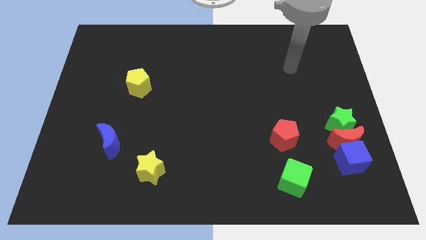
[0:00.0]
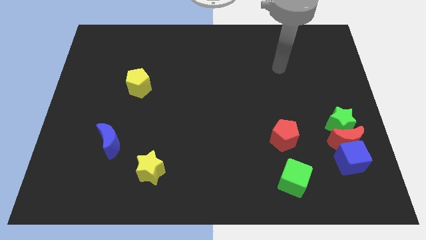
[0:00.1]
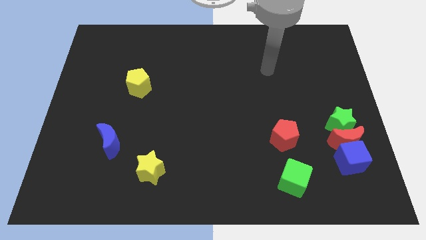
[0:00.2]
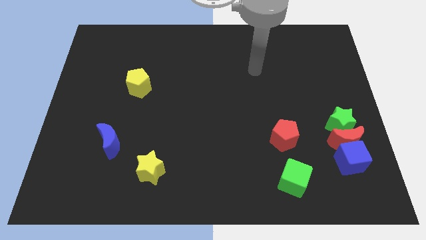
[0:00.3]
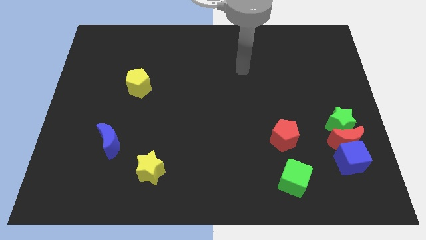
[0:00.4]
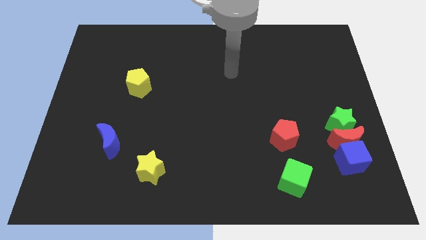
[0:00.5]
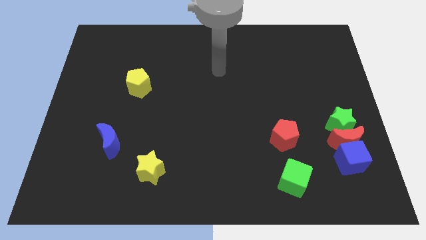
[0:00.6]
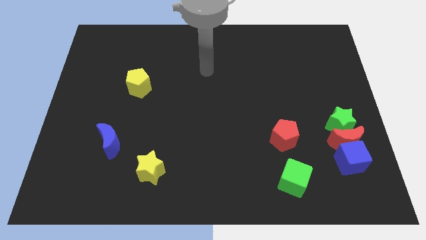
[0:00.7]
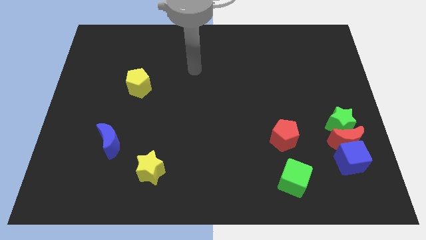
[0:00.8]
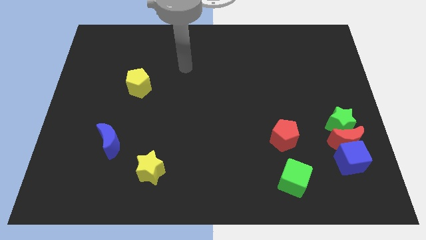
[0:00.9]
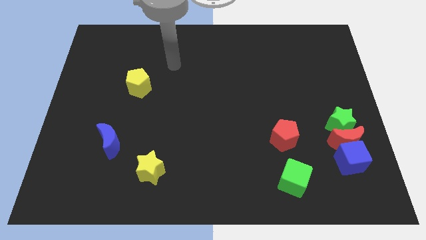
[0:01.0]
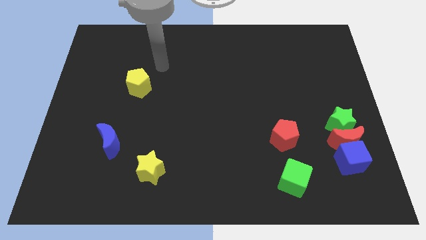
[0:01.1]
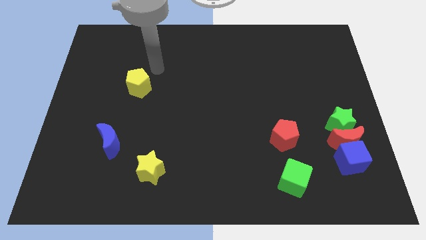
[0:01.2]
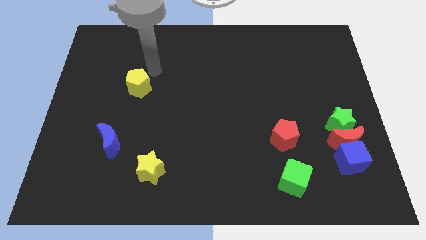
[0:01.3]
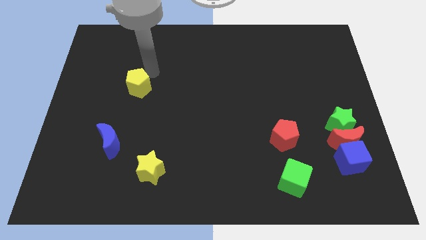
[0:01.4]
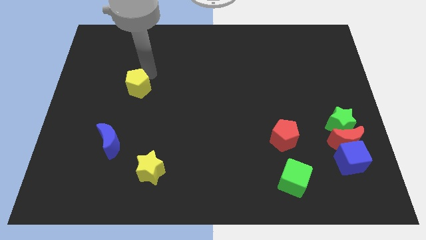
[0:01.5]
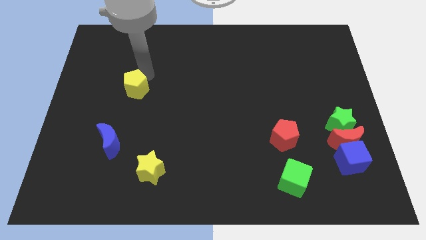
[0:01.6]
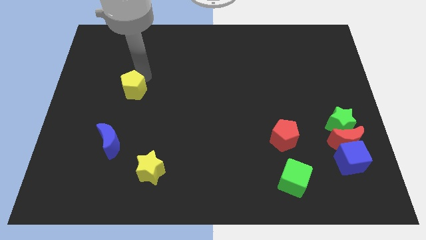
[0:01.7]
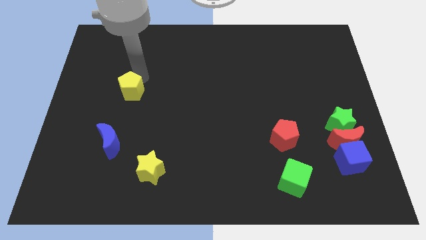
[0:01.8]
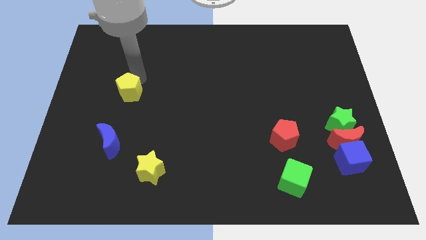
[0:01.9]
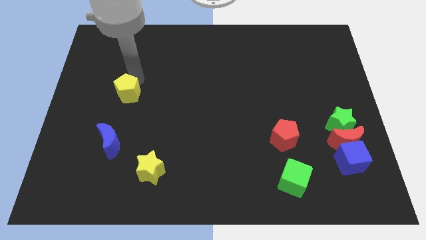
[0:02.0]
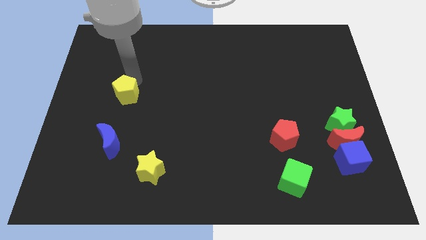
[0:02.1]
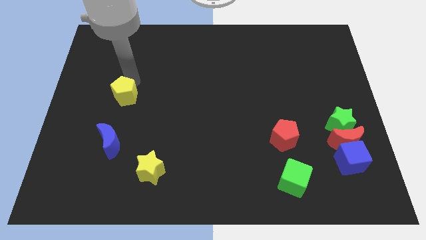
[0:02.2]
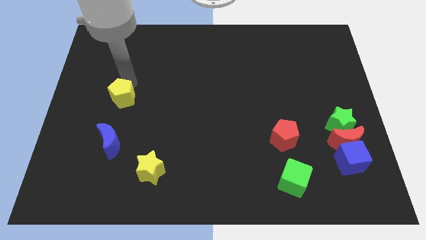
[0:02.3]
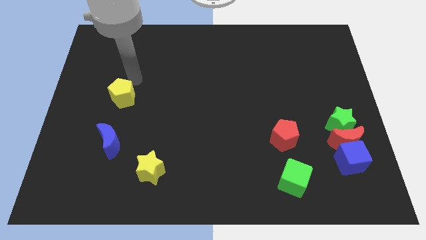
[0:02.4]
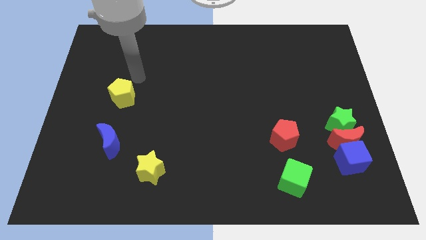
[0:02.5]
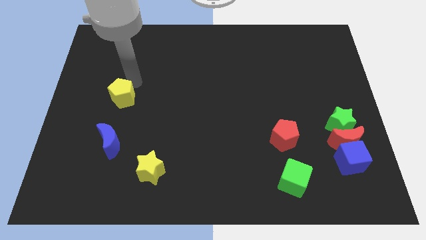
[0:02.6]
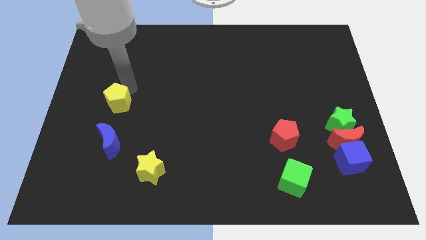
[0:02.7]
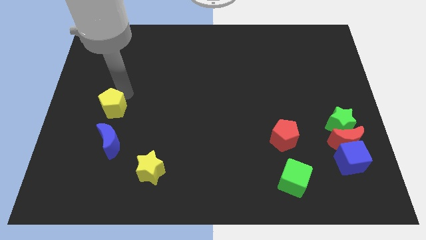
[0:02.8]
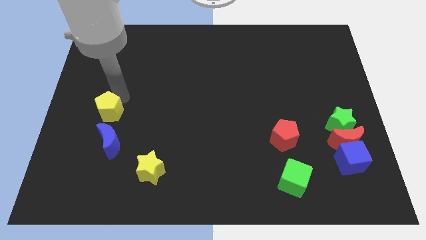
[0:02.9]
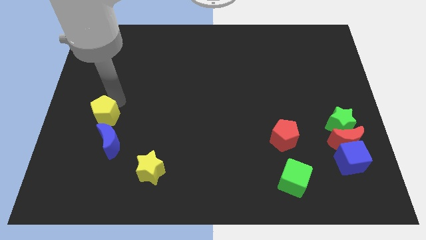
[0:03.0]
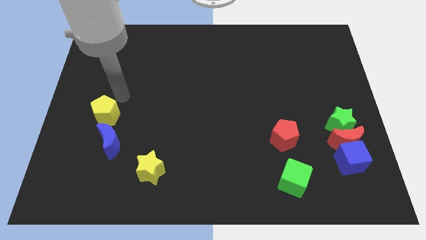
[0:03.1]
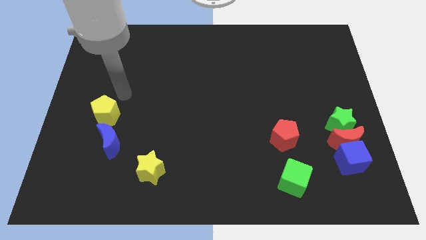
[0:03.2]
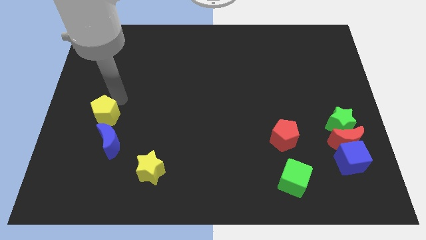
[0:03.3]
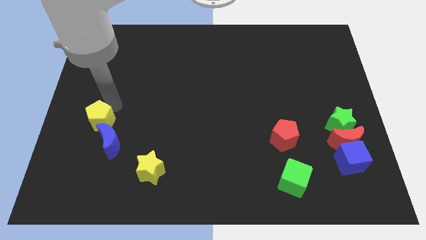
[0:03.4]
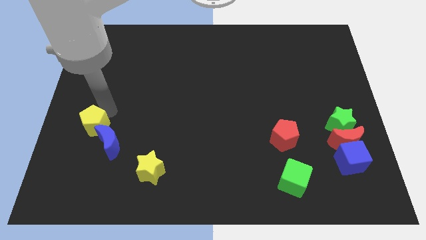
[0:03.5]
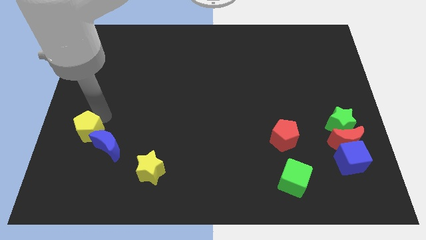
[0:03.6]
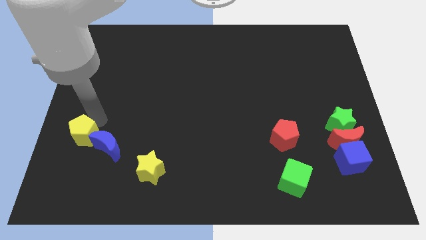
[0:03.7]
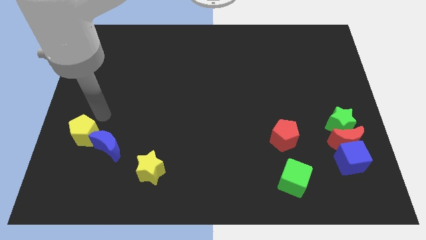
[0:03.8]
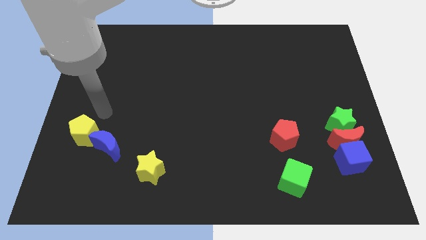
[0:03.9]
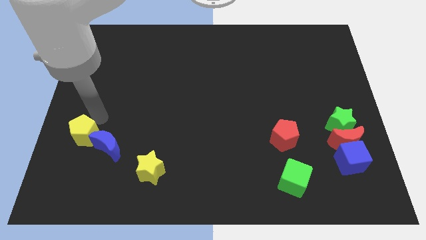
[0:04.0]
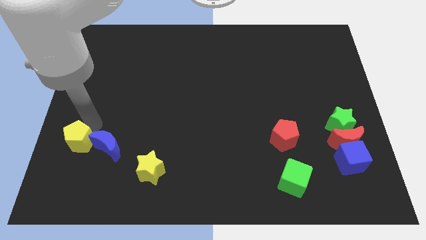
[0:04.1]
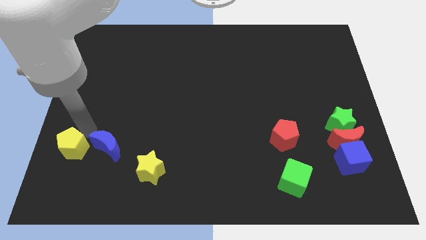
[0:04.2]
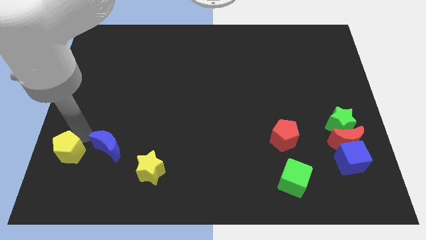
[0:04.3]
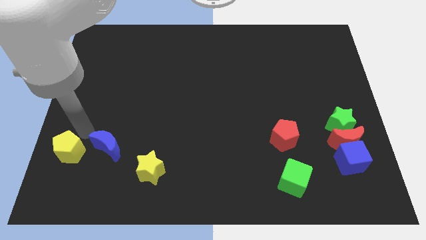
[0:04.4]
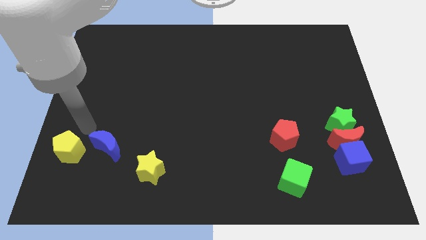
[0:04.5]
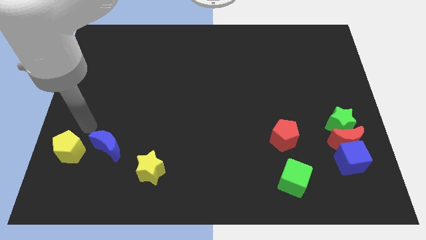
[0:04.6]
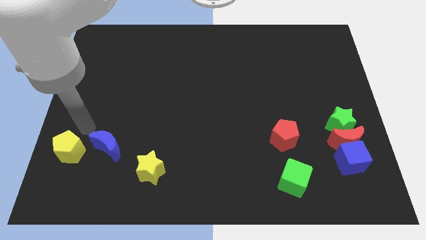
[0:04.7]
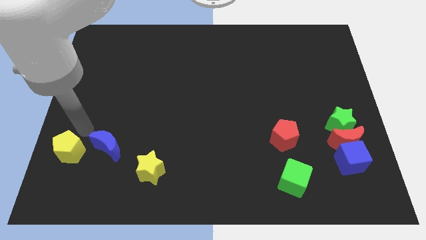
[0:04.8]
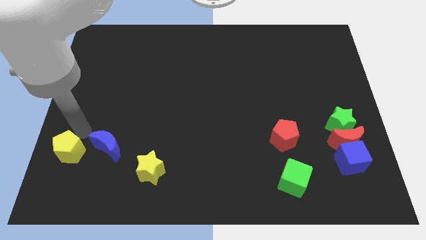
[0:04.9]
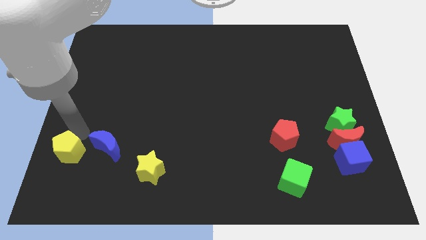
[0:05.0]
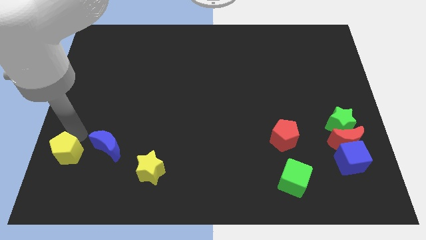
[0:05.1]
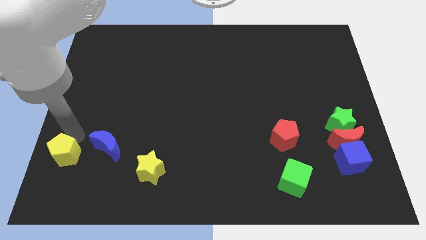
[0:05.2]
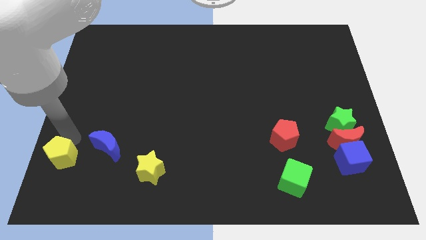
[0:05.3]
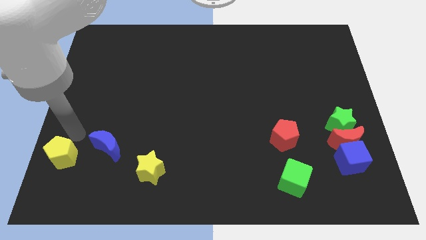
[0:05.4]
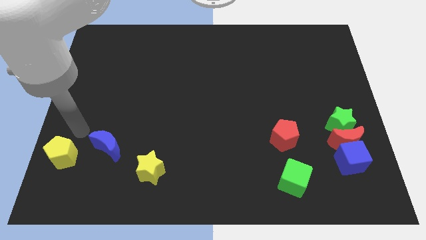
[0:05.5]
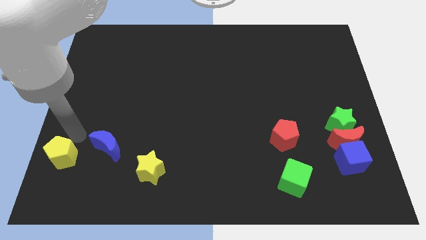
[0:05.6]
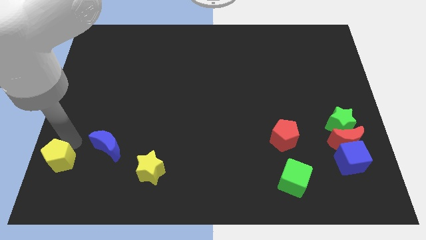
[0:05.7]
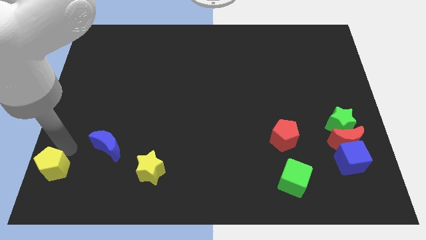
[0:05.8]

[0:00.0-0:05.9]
put the yellow pentagon to the bottom left of the board

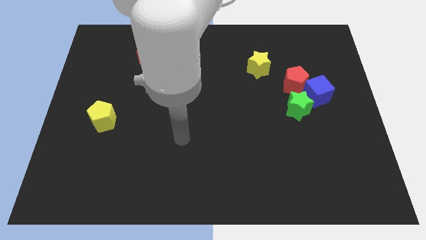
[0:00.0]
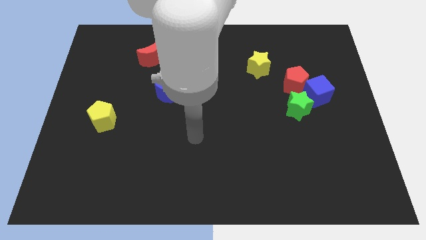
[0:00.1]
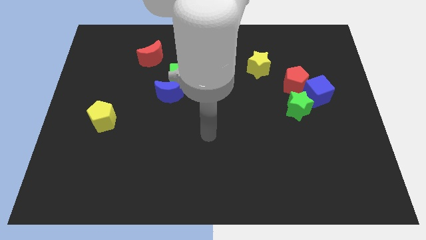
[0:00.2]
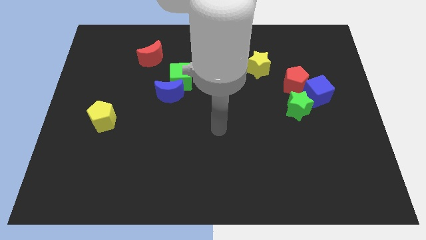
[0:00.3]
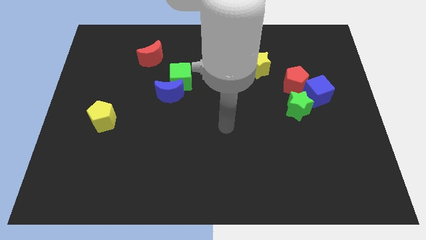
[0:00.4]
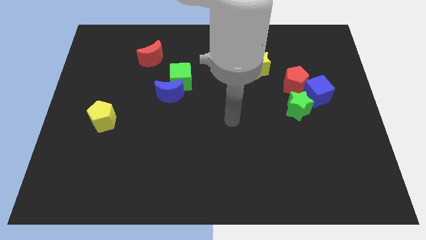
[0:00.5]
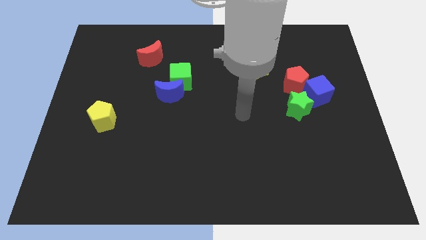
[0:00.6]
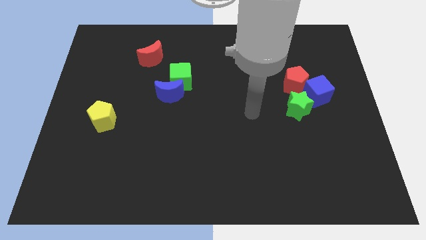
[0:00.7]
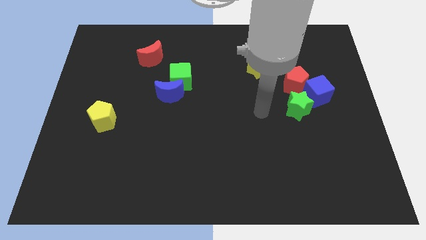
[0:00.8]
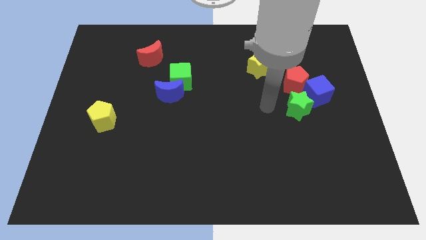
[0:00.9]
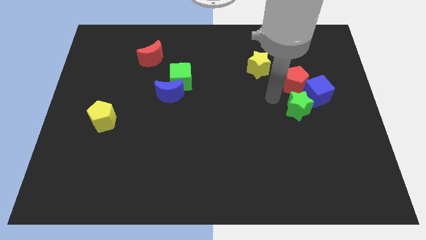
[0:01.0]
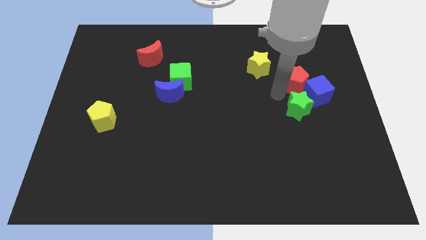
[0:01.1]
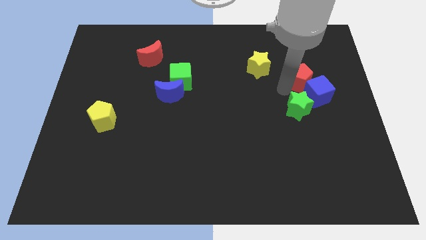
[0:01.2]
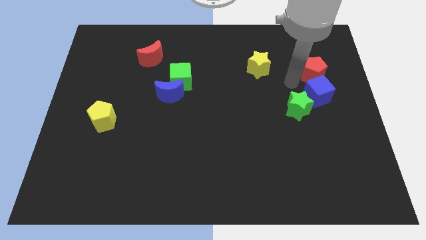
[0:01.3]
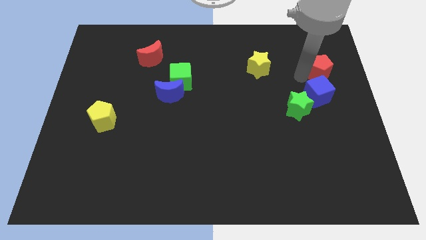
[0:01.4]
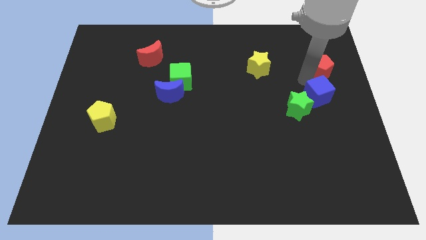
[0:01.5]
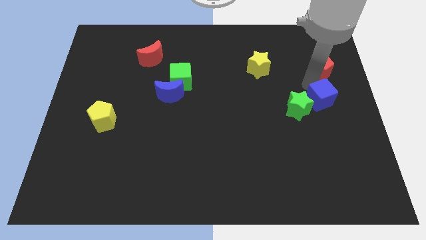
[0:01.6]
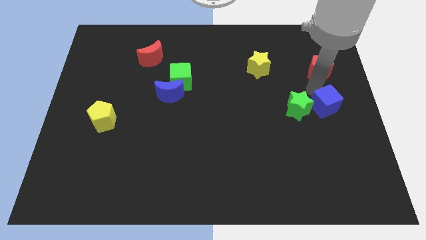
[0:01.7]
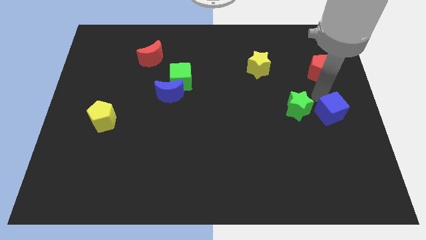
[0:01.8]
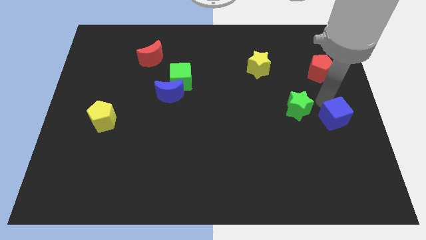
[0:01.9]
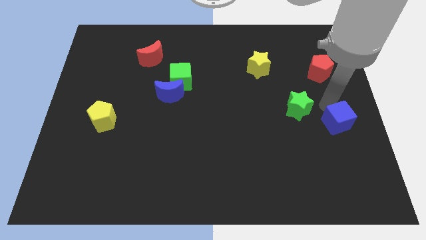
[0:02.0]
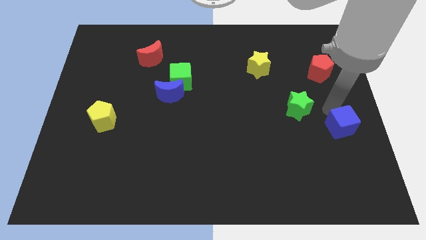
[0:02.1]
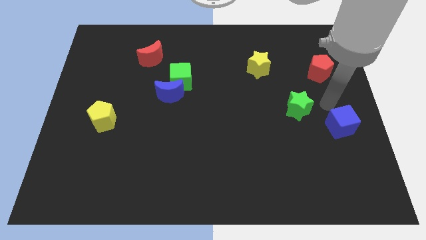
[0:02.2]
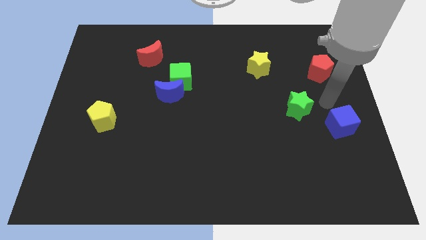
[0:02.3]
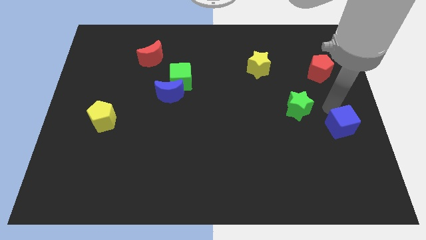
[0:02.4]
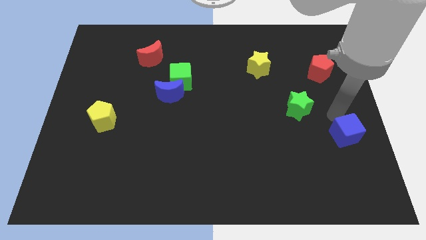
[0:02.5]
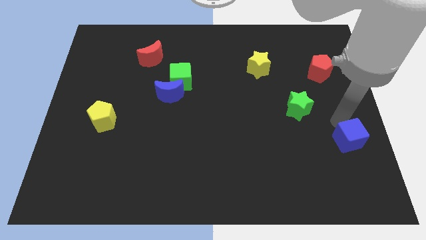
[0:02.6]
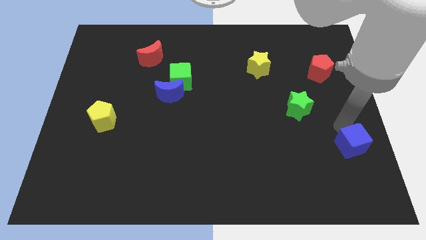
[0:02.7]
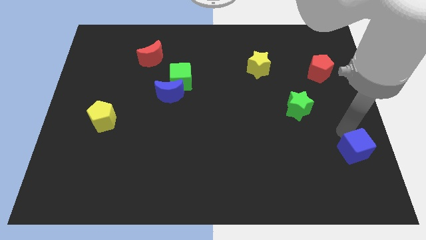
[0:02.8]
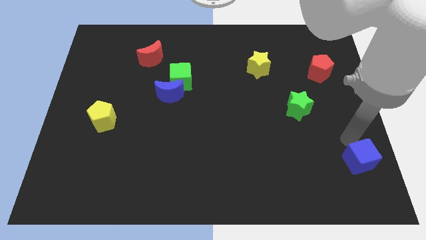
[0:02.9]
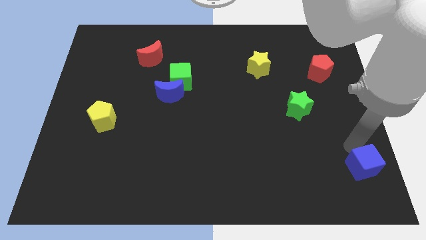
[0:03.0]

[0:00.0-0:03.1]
move the blue cube to the bottom right
